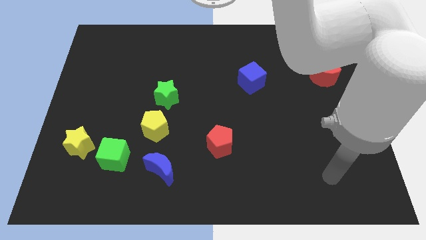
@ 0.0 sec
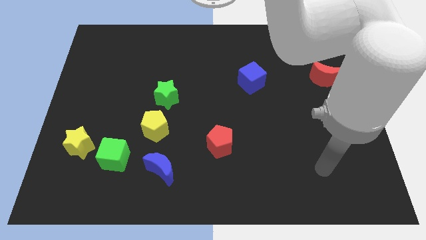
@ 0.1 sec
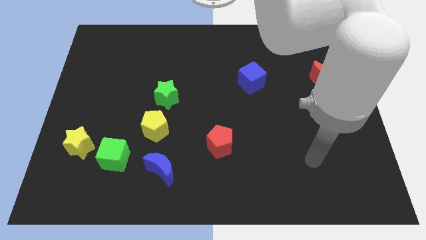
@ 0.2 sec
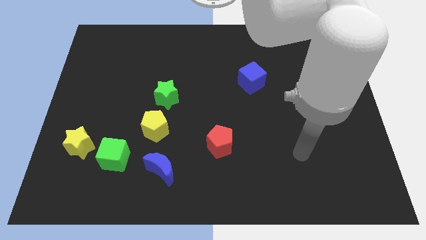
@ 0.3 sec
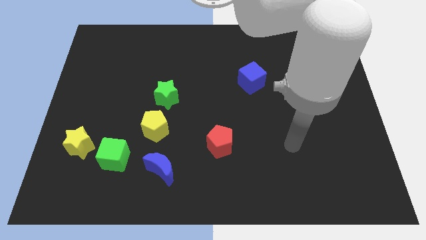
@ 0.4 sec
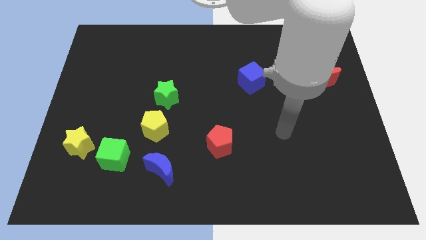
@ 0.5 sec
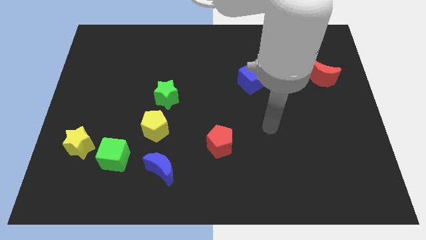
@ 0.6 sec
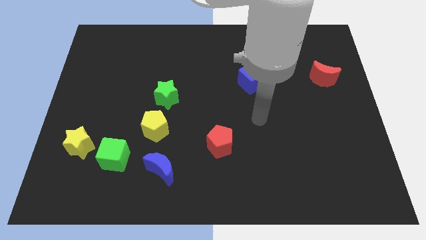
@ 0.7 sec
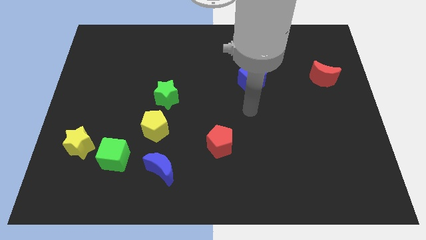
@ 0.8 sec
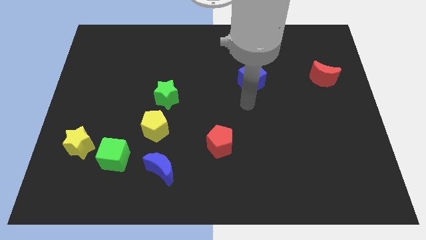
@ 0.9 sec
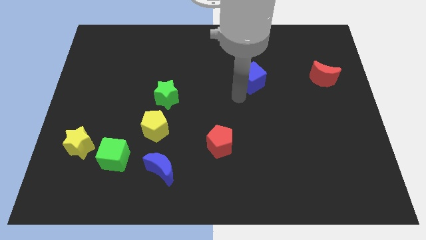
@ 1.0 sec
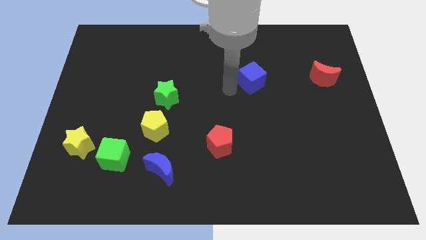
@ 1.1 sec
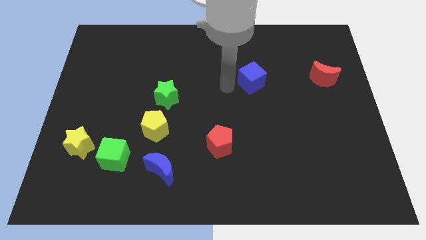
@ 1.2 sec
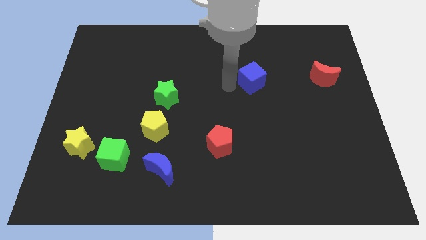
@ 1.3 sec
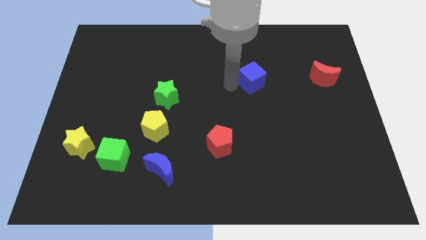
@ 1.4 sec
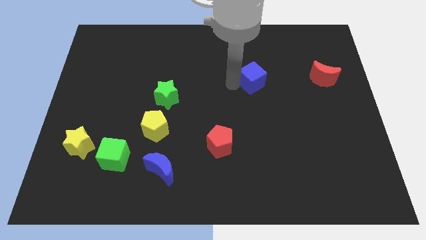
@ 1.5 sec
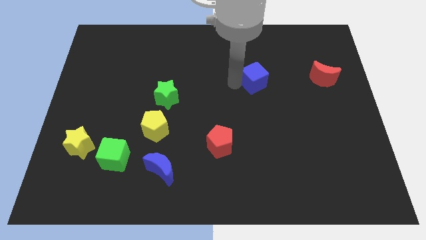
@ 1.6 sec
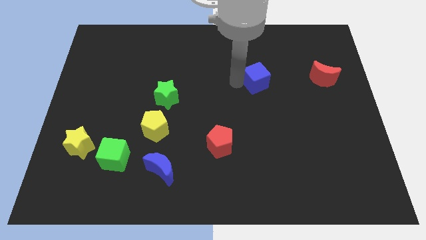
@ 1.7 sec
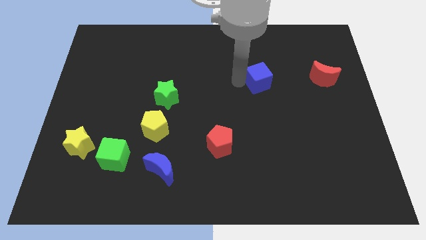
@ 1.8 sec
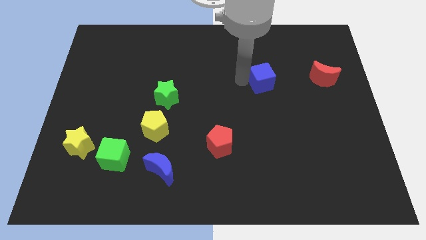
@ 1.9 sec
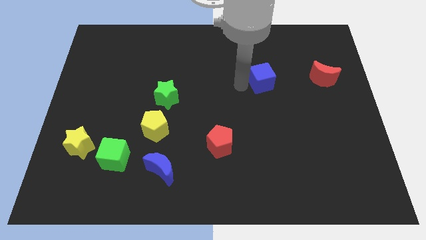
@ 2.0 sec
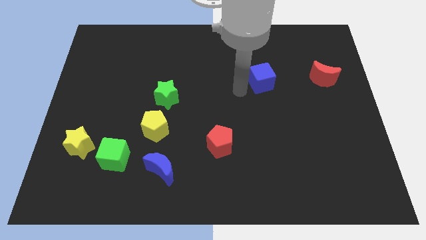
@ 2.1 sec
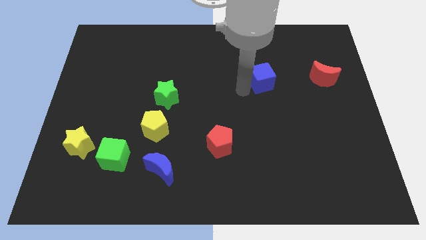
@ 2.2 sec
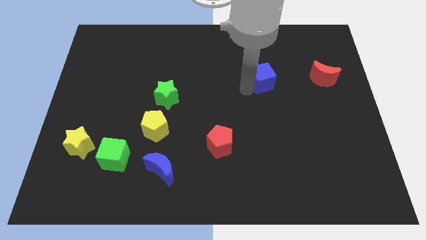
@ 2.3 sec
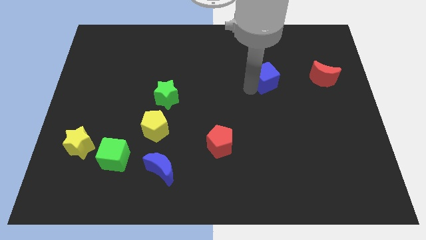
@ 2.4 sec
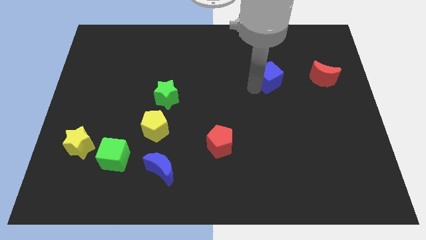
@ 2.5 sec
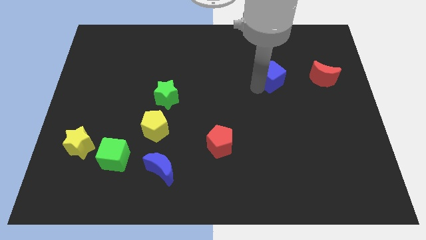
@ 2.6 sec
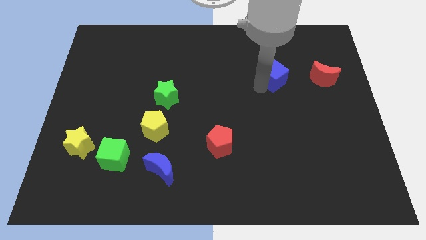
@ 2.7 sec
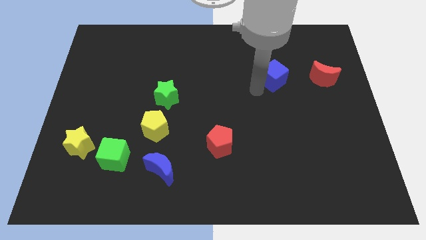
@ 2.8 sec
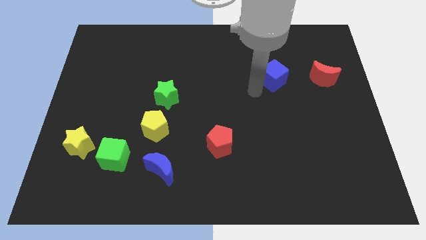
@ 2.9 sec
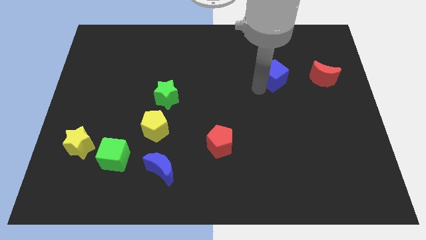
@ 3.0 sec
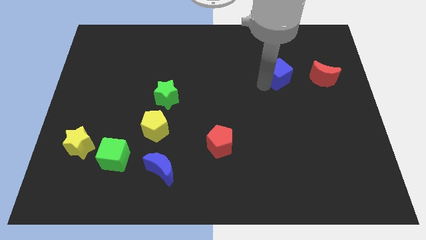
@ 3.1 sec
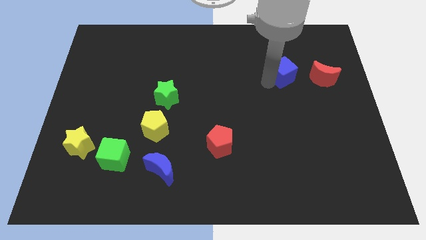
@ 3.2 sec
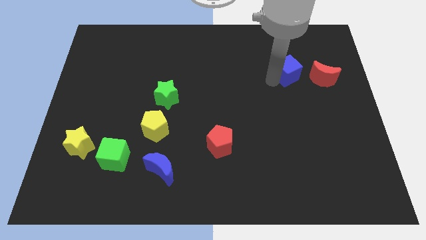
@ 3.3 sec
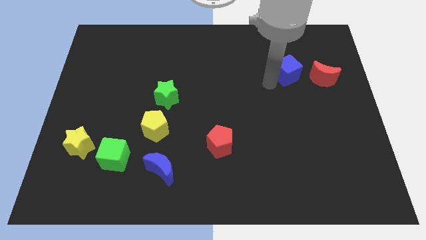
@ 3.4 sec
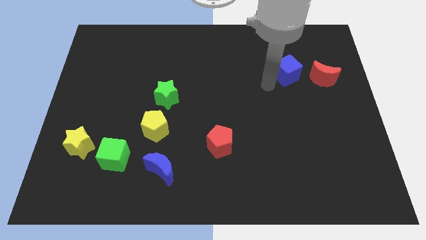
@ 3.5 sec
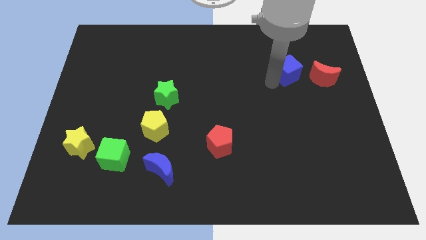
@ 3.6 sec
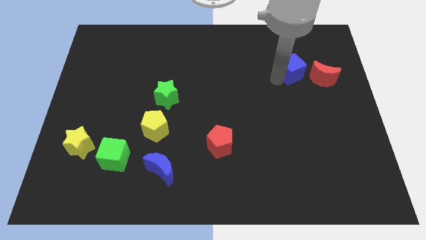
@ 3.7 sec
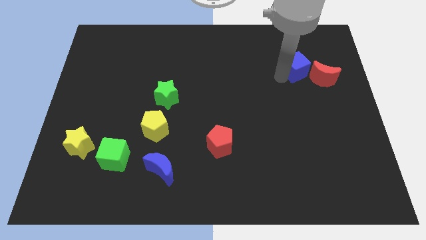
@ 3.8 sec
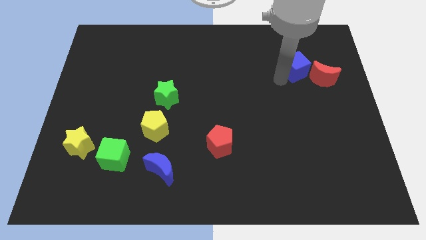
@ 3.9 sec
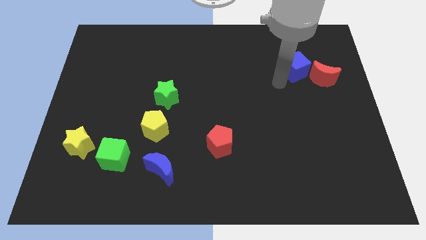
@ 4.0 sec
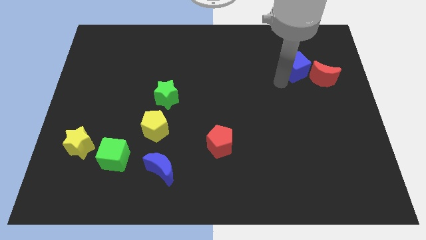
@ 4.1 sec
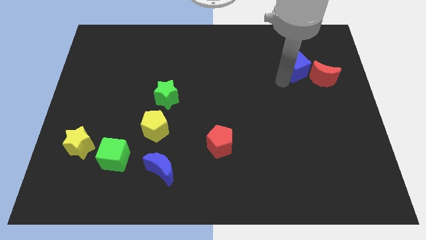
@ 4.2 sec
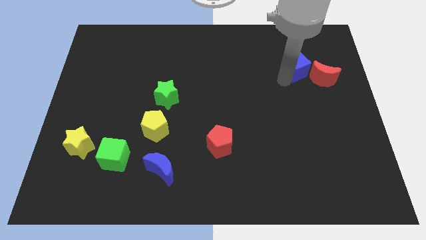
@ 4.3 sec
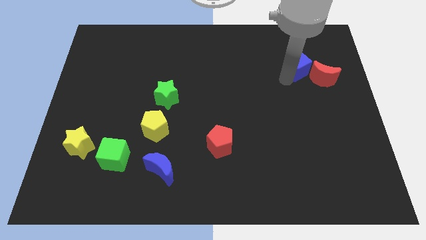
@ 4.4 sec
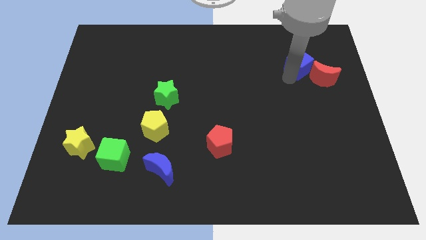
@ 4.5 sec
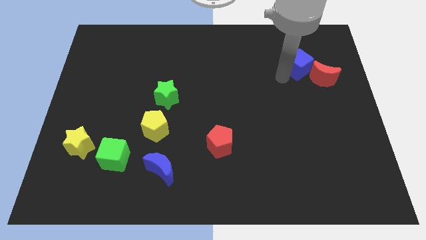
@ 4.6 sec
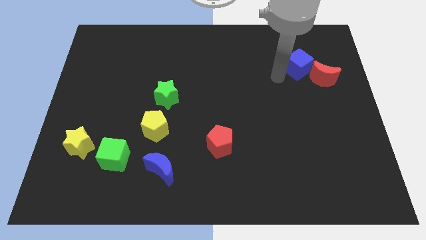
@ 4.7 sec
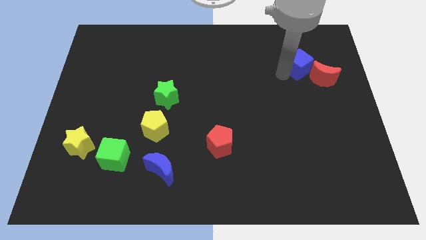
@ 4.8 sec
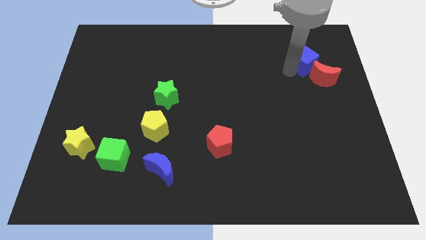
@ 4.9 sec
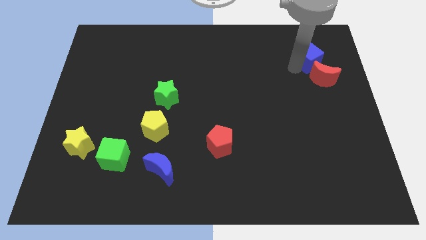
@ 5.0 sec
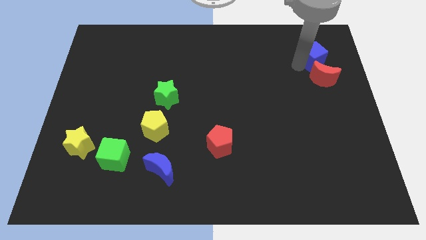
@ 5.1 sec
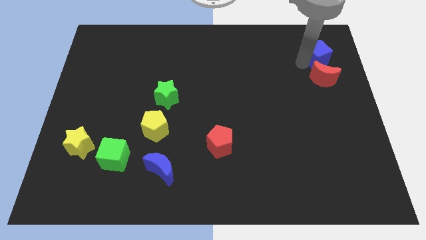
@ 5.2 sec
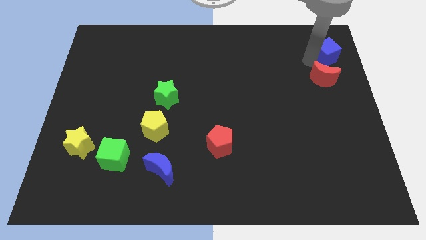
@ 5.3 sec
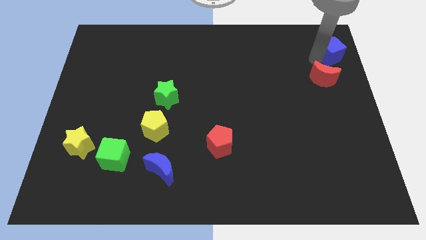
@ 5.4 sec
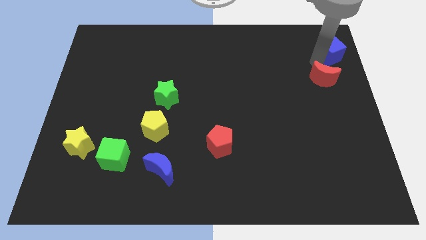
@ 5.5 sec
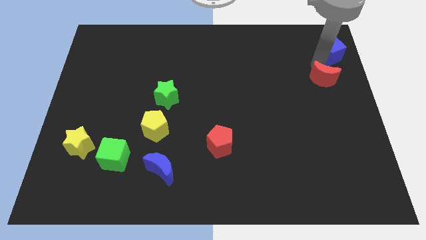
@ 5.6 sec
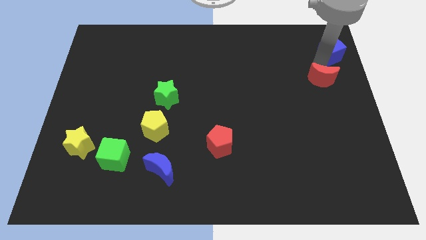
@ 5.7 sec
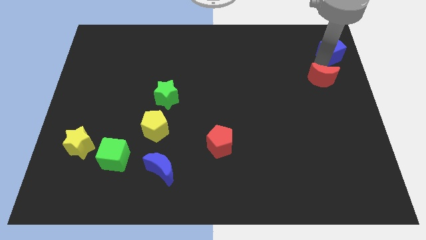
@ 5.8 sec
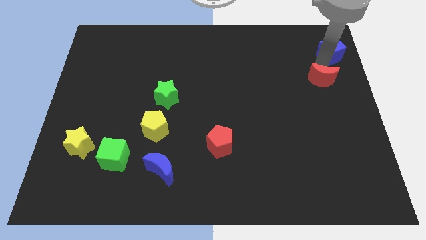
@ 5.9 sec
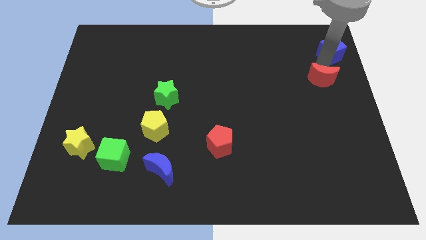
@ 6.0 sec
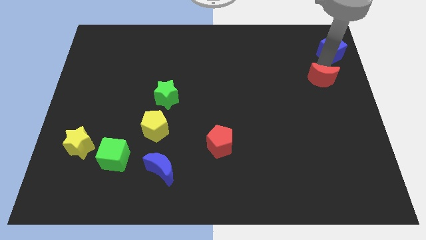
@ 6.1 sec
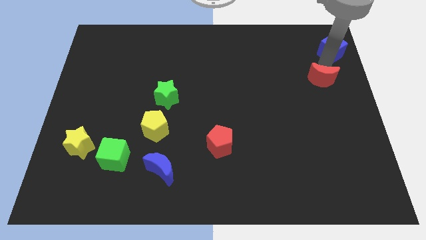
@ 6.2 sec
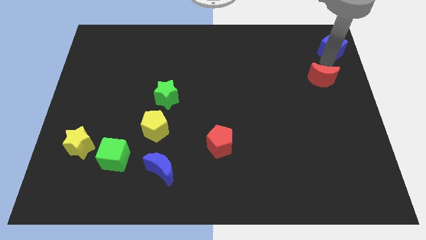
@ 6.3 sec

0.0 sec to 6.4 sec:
put the blue cube to the top right corner
